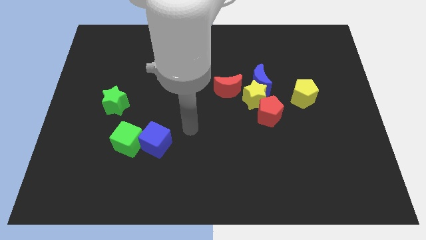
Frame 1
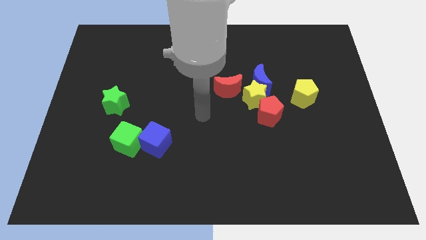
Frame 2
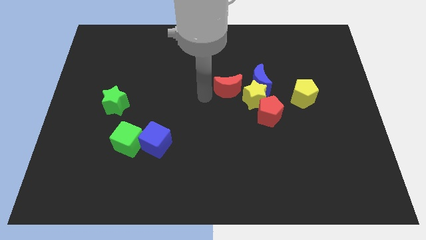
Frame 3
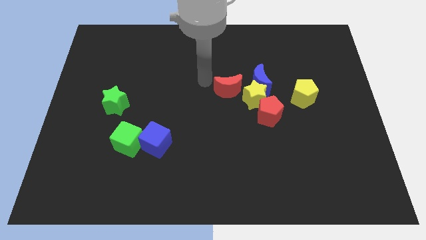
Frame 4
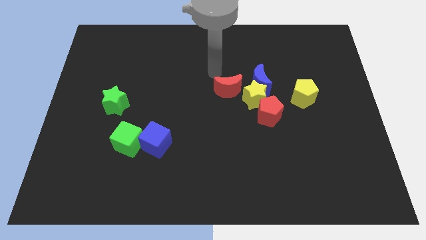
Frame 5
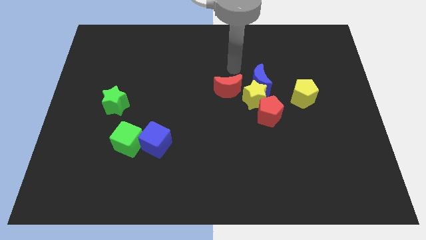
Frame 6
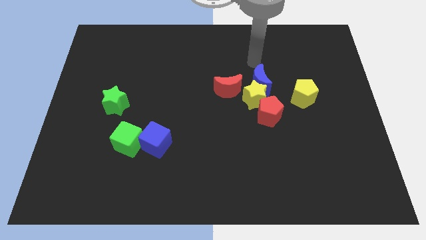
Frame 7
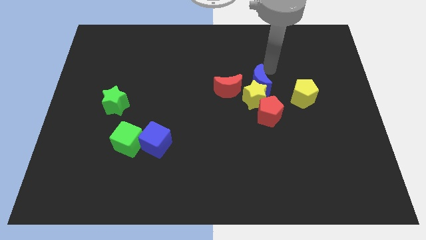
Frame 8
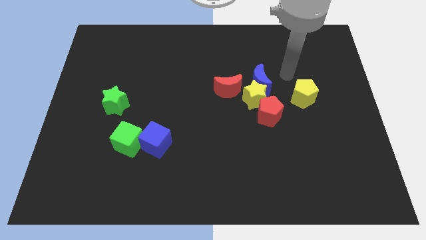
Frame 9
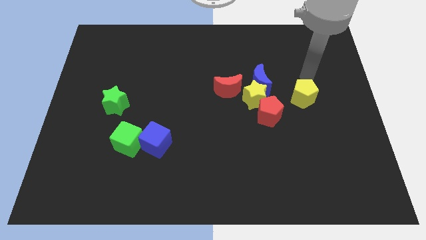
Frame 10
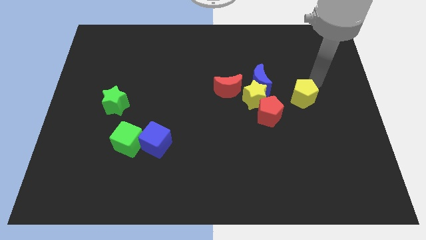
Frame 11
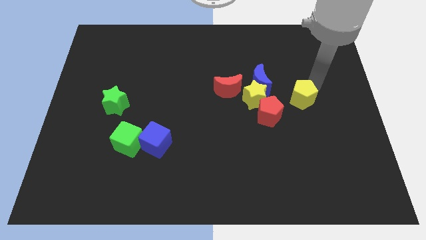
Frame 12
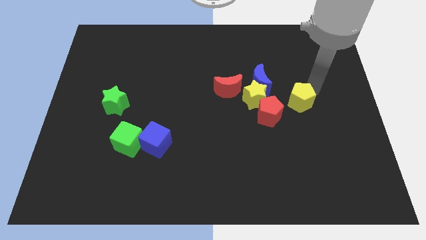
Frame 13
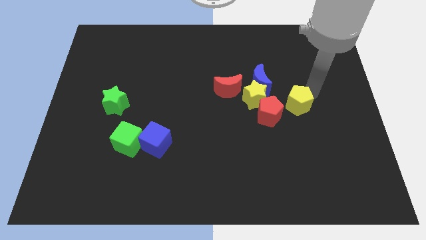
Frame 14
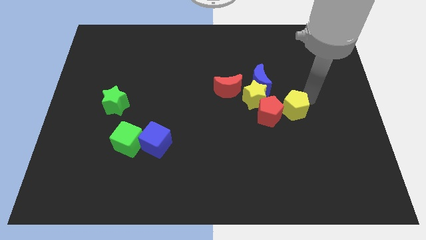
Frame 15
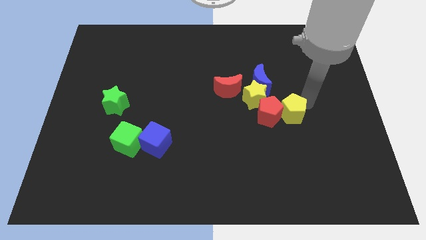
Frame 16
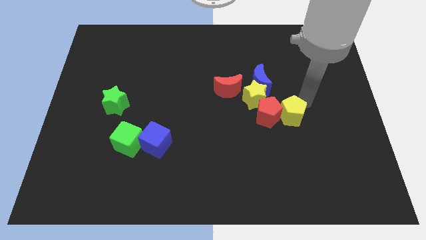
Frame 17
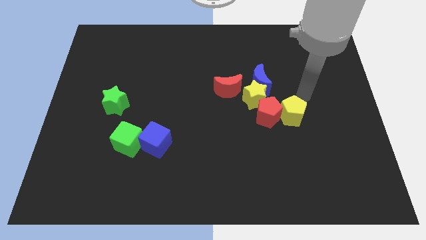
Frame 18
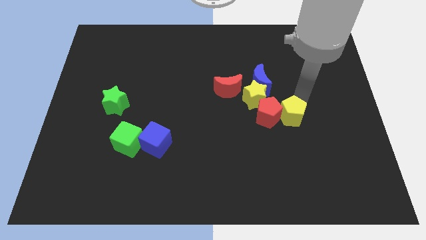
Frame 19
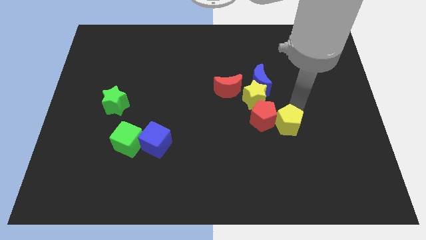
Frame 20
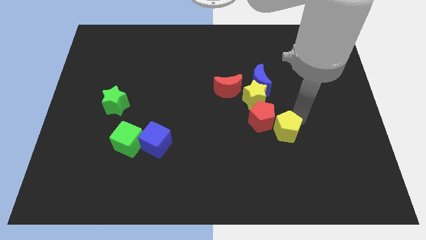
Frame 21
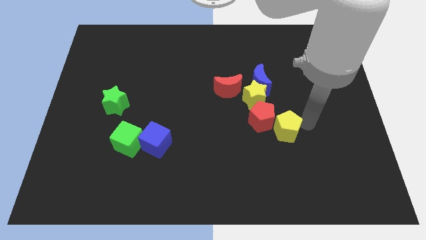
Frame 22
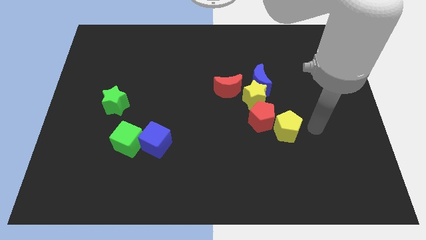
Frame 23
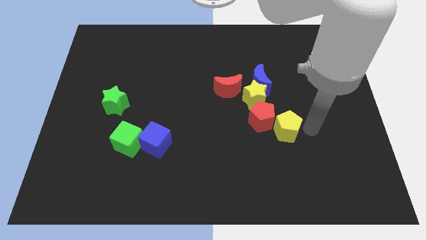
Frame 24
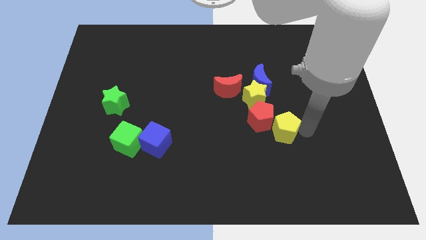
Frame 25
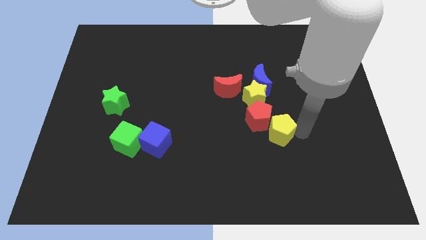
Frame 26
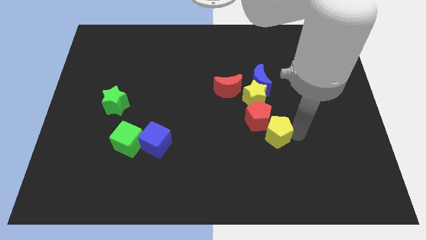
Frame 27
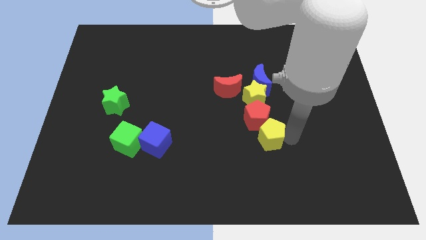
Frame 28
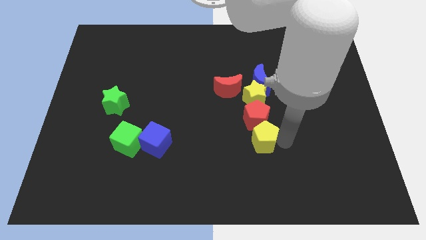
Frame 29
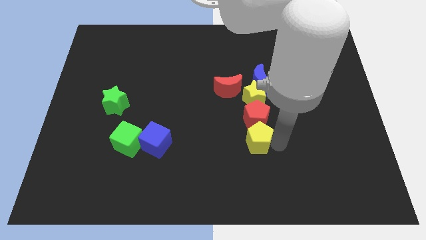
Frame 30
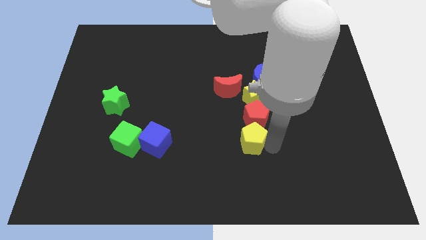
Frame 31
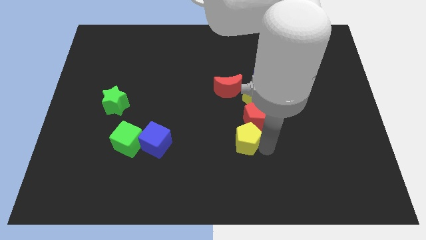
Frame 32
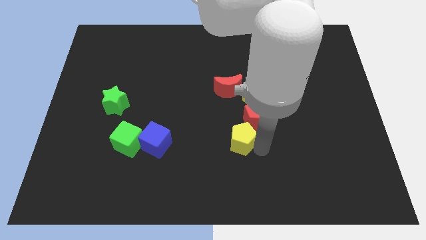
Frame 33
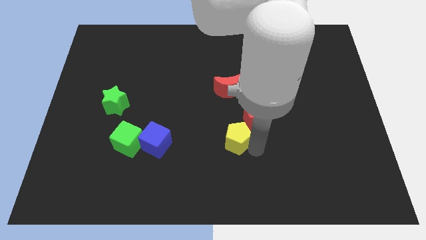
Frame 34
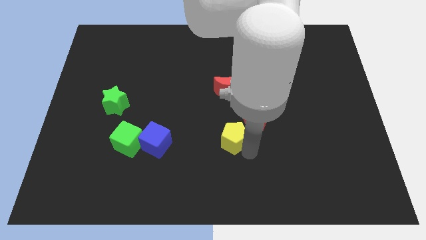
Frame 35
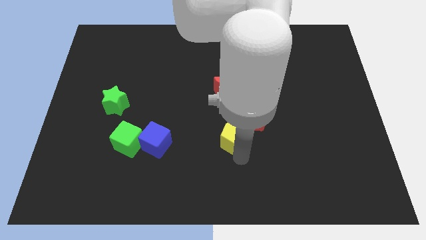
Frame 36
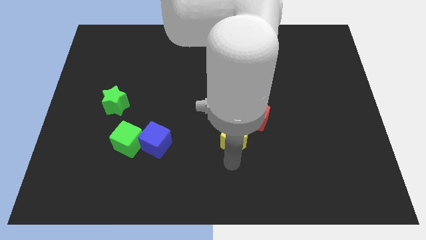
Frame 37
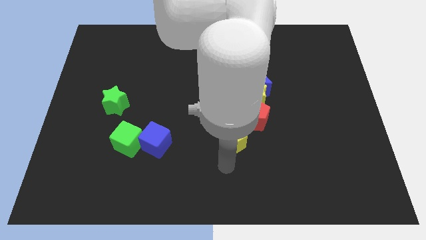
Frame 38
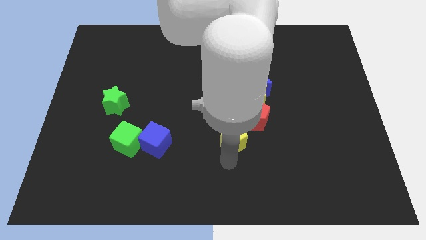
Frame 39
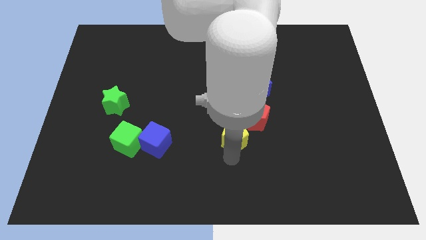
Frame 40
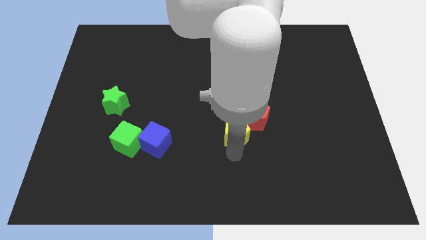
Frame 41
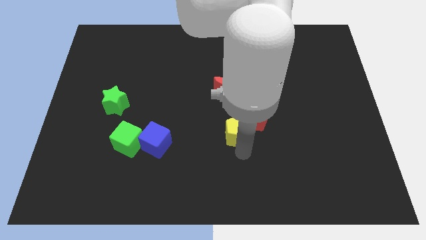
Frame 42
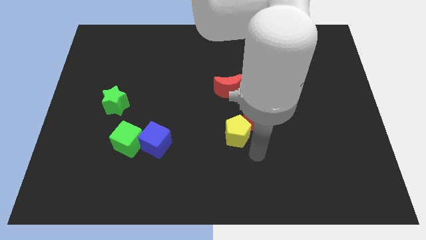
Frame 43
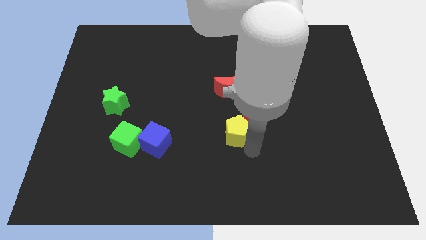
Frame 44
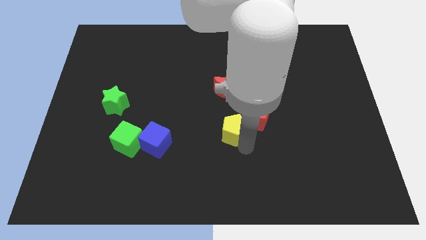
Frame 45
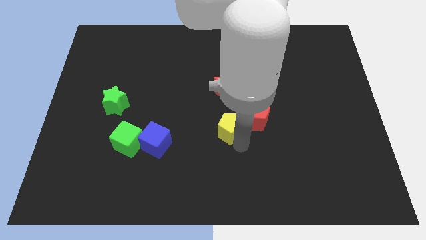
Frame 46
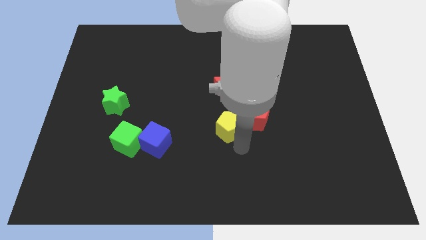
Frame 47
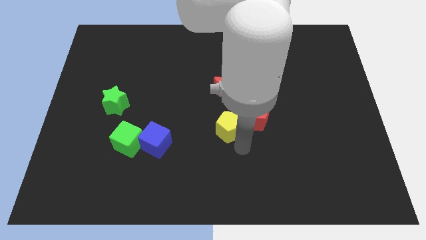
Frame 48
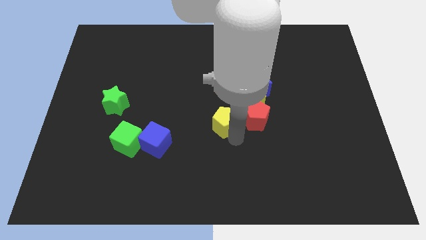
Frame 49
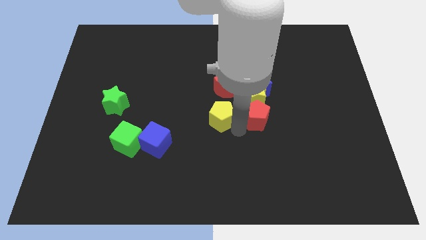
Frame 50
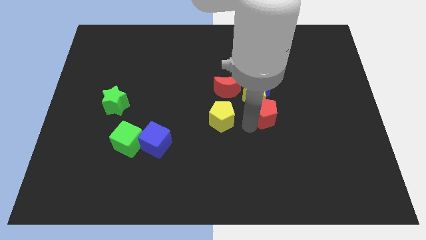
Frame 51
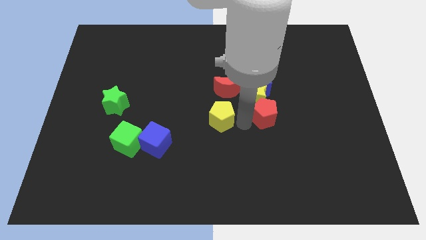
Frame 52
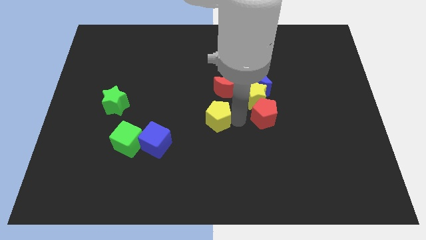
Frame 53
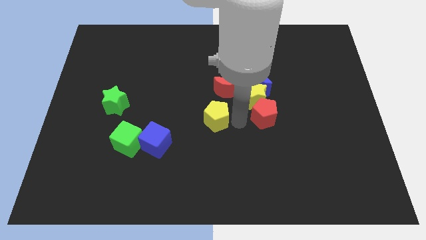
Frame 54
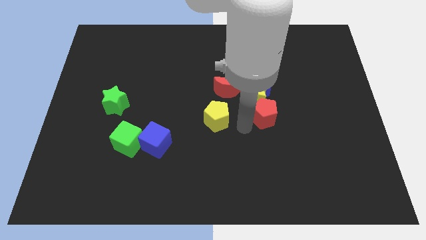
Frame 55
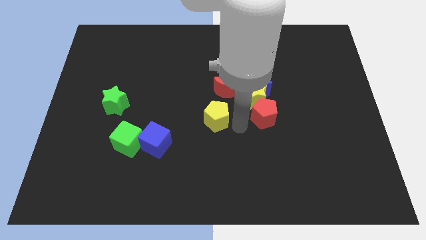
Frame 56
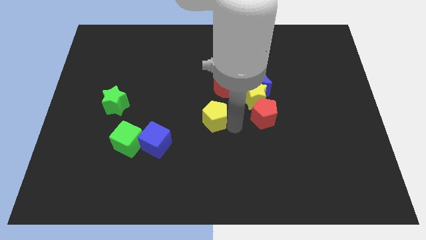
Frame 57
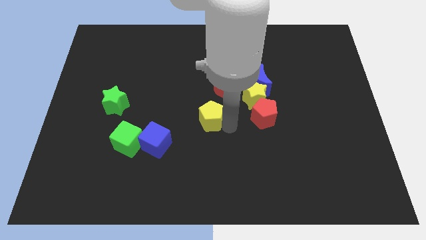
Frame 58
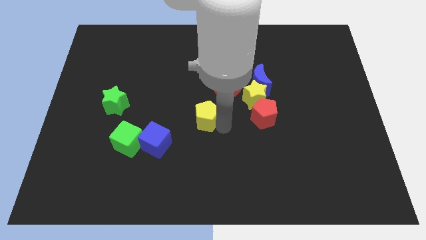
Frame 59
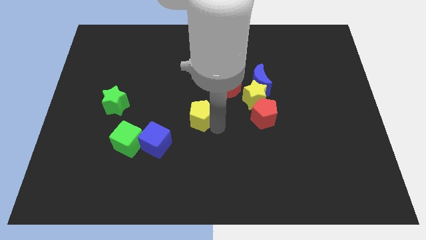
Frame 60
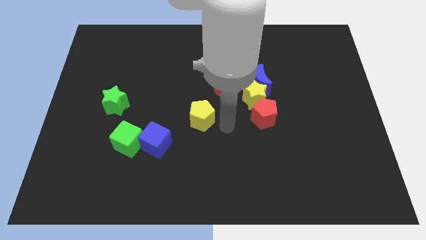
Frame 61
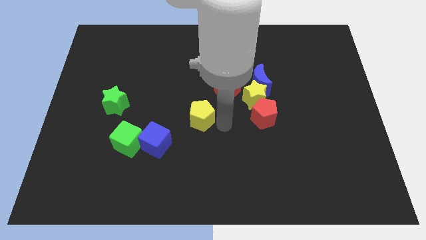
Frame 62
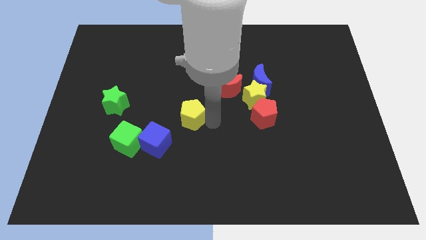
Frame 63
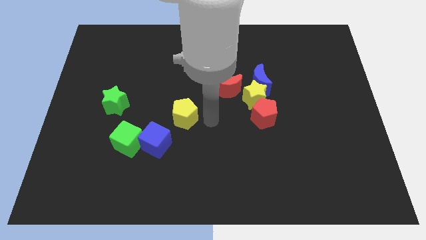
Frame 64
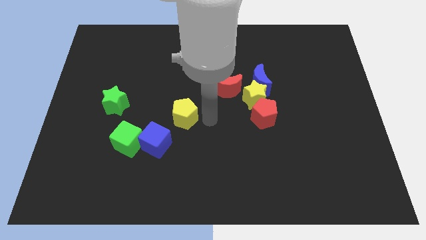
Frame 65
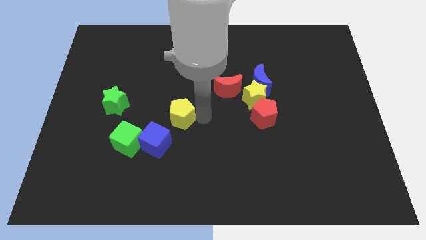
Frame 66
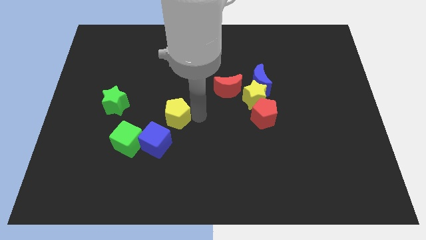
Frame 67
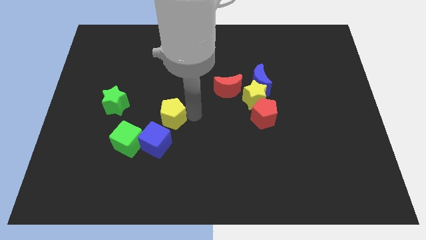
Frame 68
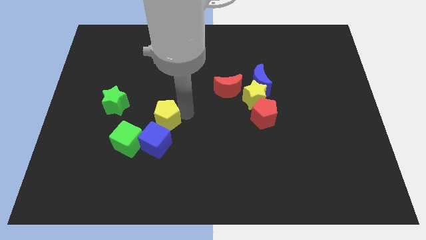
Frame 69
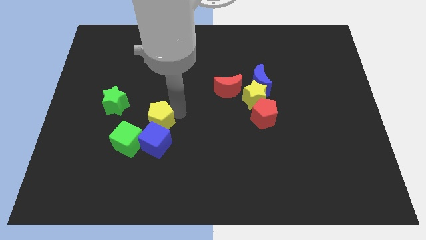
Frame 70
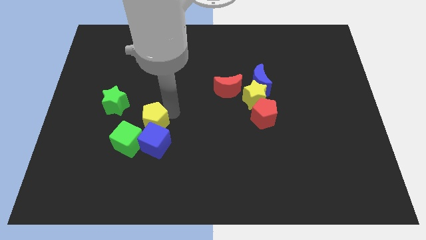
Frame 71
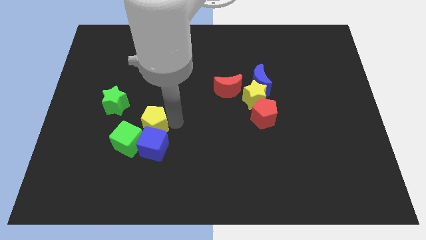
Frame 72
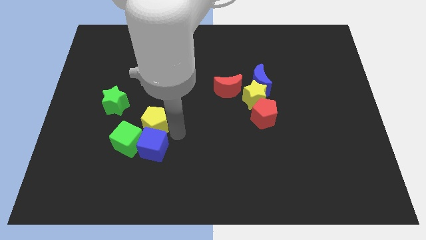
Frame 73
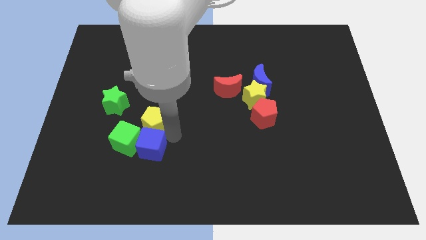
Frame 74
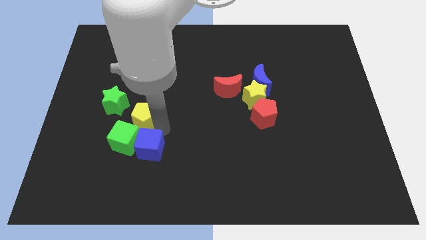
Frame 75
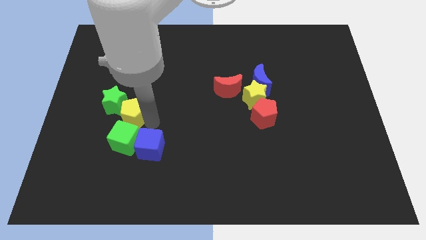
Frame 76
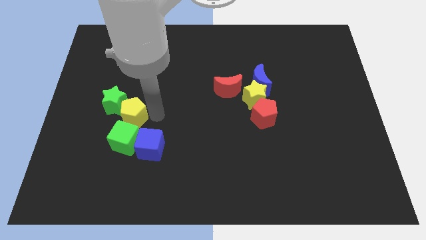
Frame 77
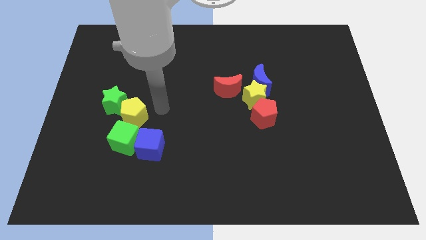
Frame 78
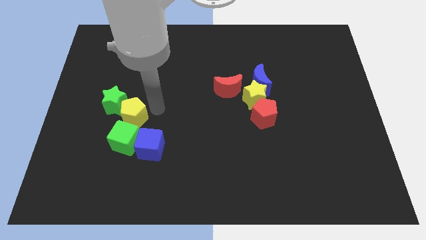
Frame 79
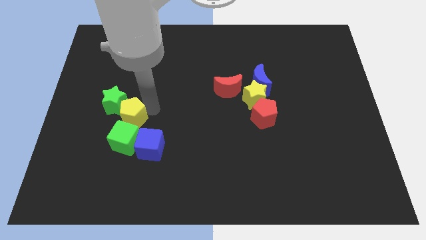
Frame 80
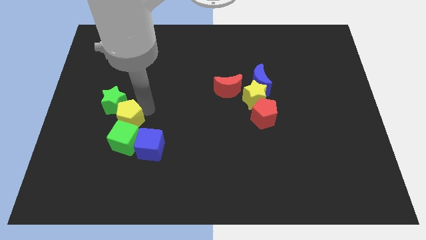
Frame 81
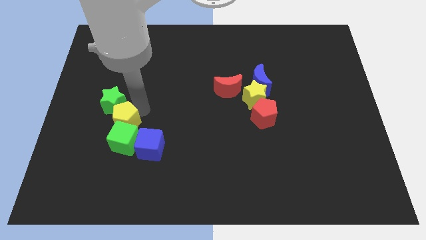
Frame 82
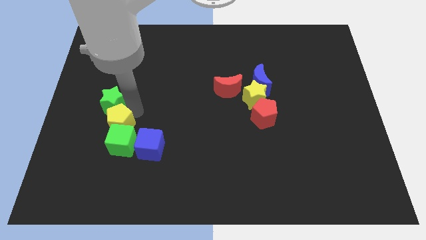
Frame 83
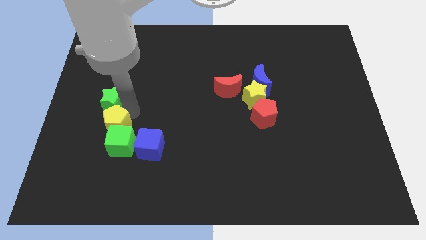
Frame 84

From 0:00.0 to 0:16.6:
put the yellow pentagon diagonally down and to the left of the green star

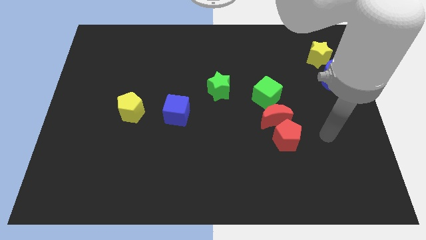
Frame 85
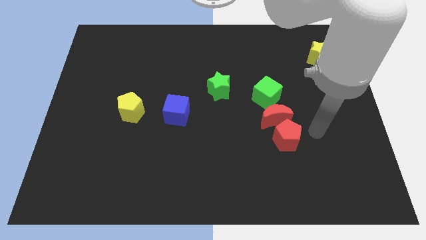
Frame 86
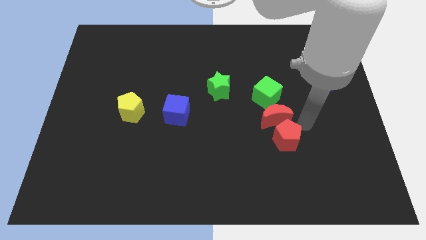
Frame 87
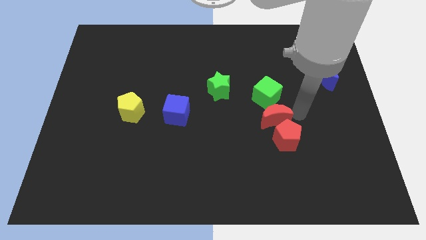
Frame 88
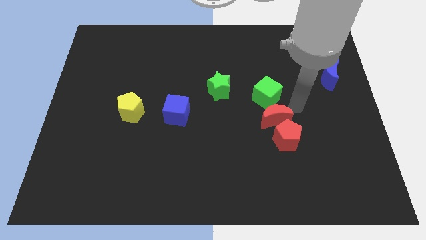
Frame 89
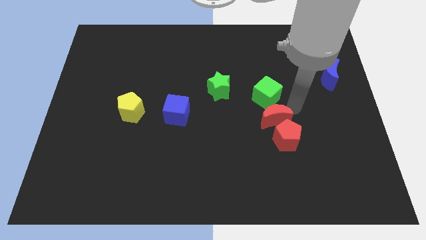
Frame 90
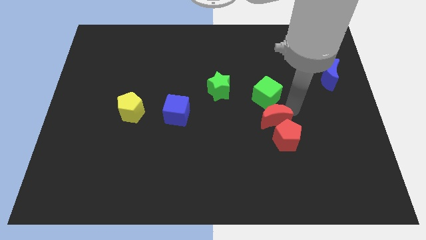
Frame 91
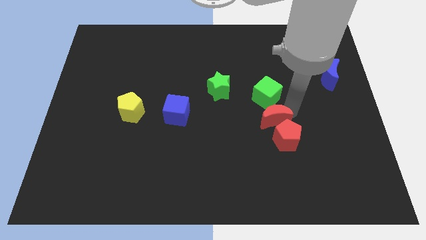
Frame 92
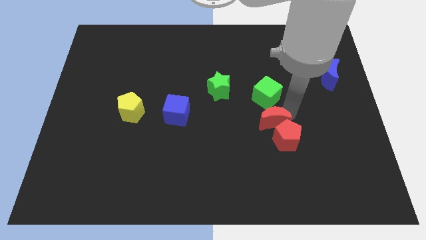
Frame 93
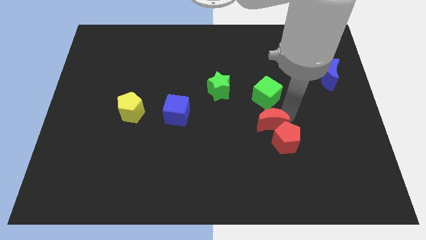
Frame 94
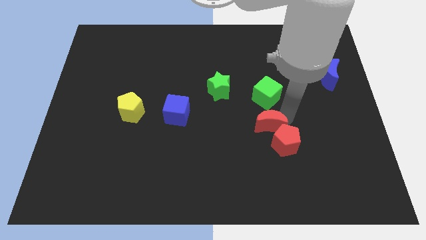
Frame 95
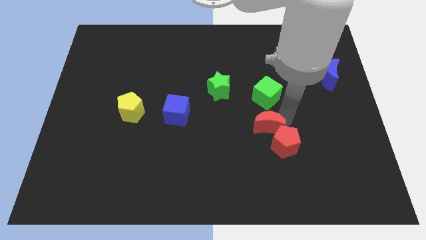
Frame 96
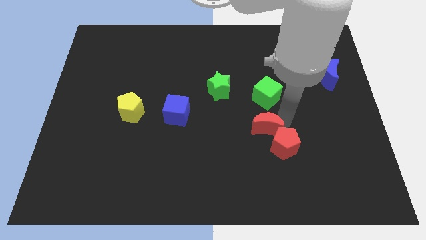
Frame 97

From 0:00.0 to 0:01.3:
put the red moon left of the red pentagon
